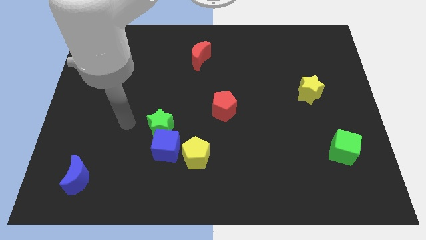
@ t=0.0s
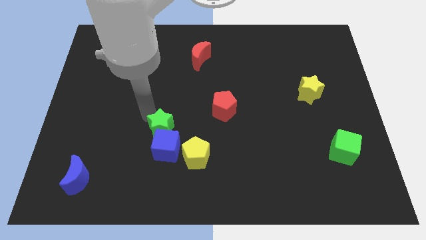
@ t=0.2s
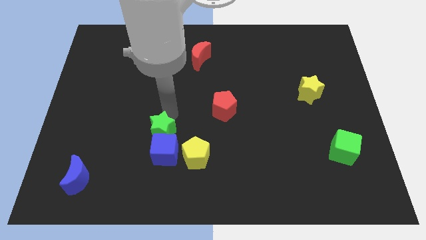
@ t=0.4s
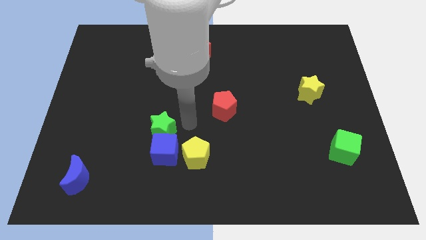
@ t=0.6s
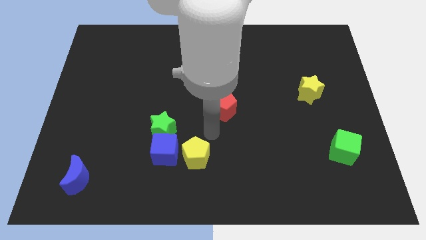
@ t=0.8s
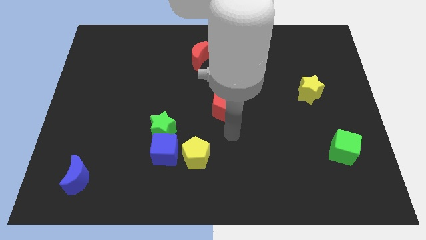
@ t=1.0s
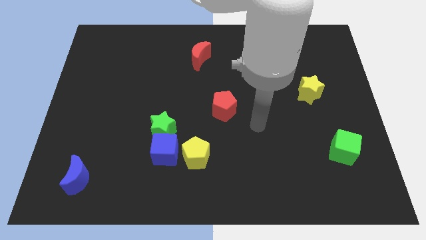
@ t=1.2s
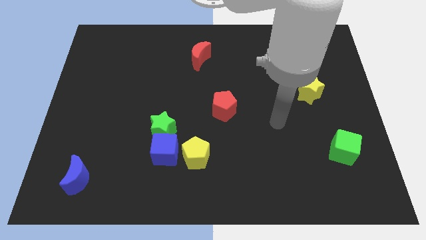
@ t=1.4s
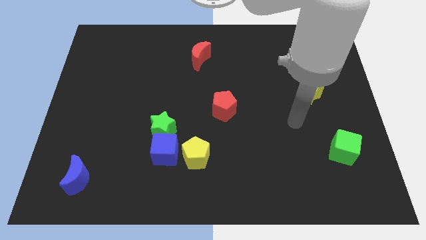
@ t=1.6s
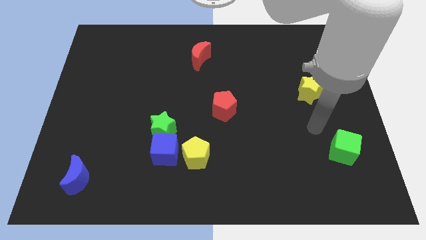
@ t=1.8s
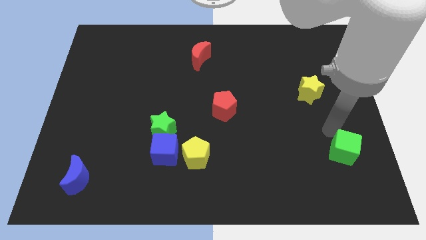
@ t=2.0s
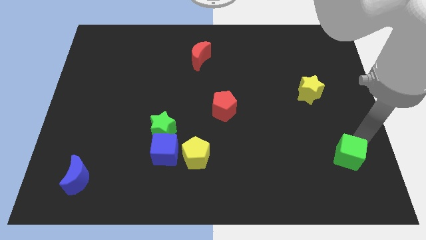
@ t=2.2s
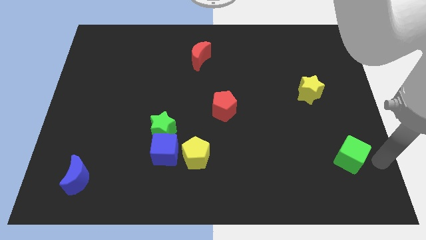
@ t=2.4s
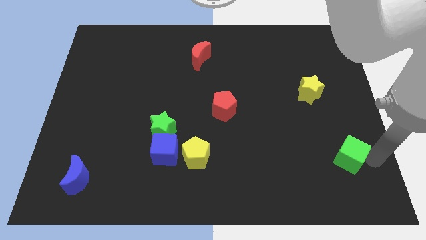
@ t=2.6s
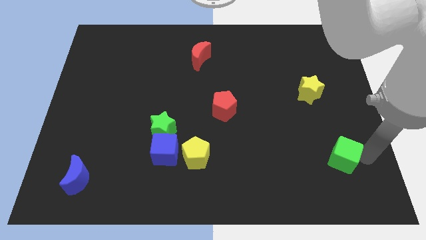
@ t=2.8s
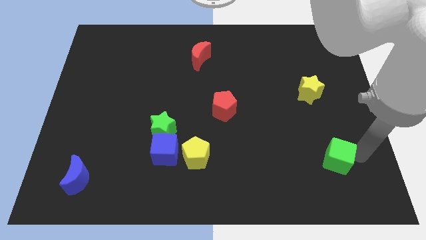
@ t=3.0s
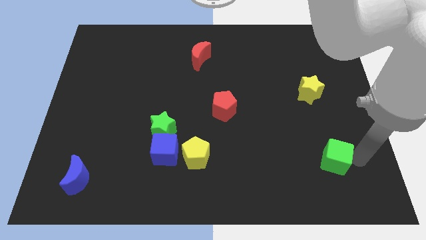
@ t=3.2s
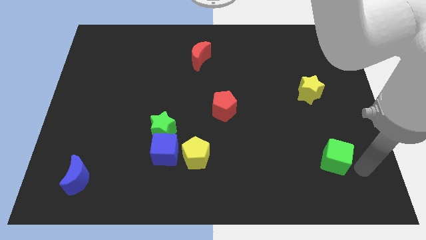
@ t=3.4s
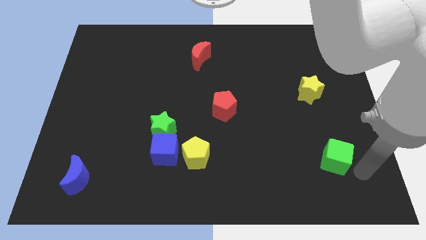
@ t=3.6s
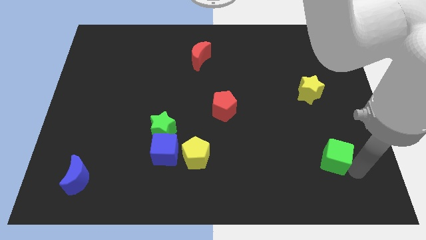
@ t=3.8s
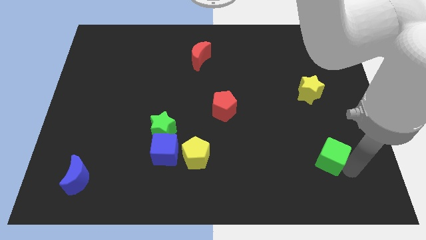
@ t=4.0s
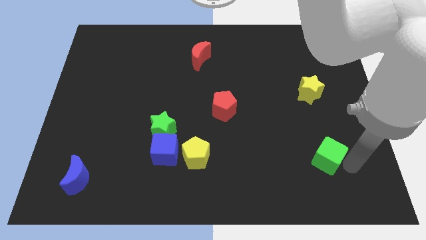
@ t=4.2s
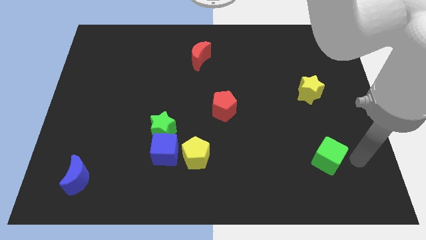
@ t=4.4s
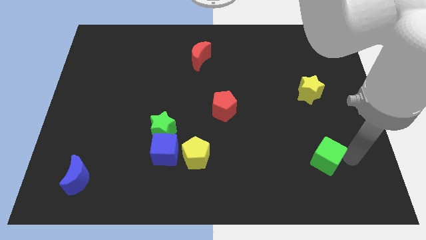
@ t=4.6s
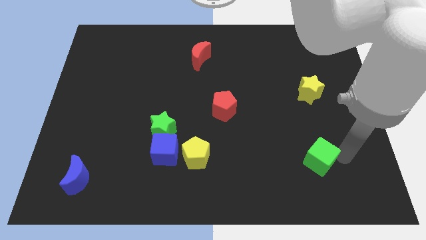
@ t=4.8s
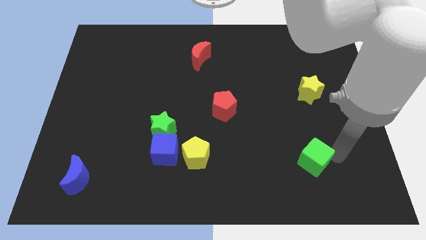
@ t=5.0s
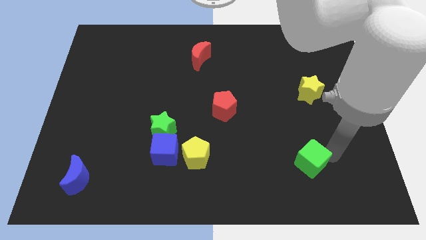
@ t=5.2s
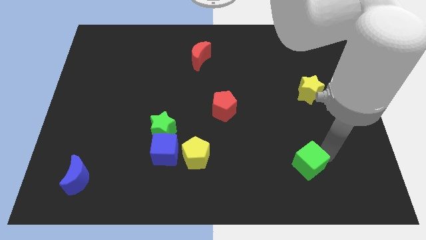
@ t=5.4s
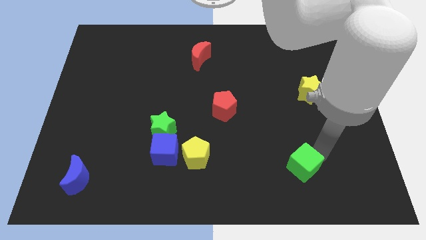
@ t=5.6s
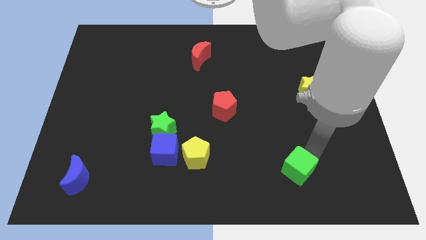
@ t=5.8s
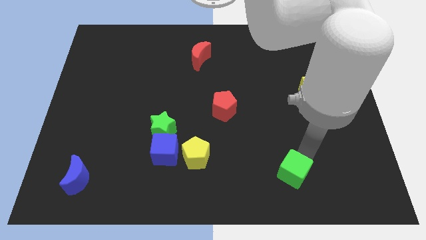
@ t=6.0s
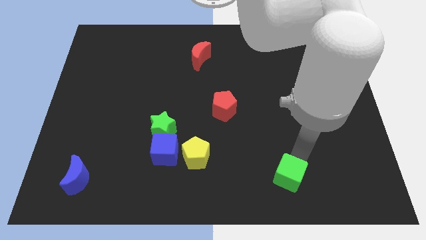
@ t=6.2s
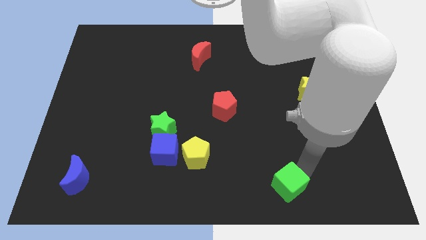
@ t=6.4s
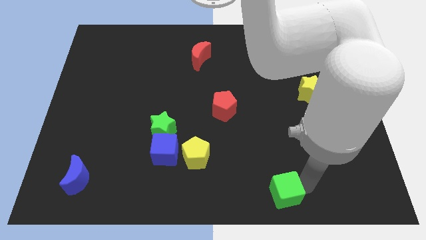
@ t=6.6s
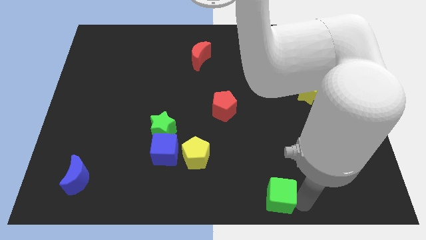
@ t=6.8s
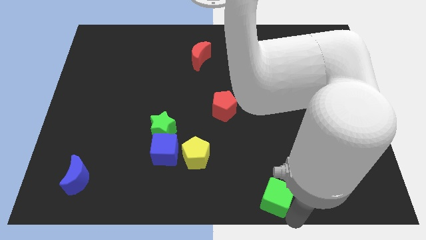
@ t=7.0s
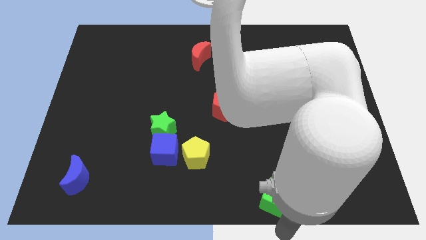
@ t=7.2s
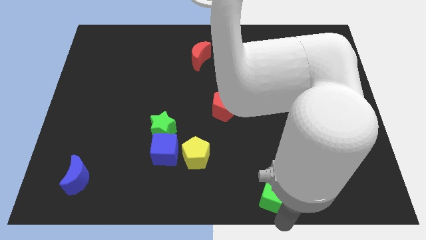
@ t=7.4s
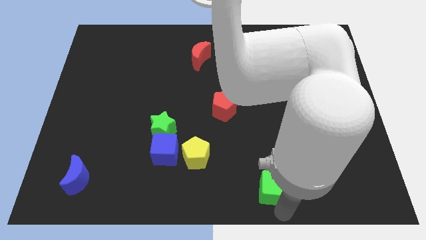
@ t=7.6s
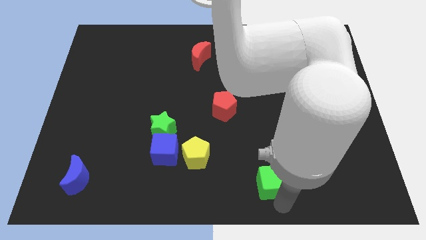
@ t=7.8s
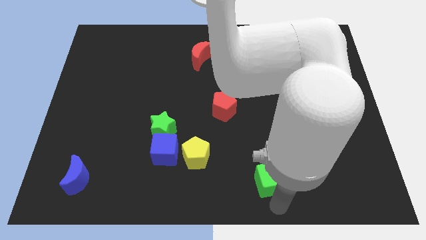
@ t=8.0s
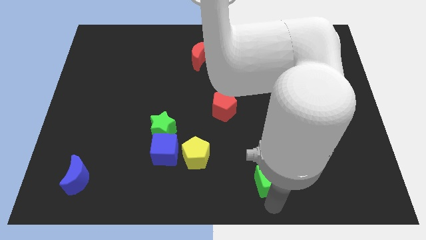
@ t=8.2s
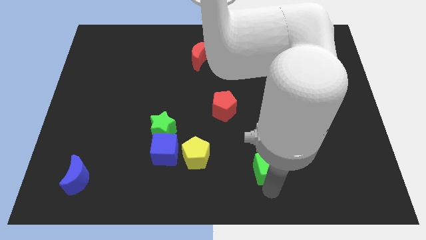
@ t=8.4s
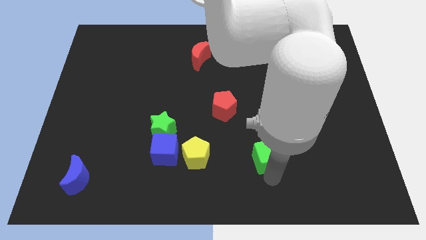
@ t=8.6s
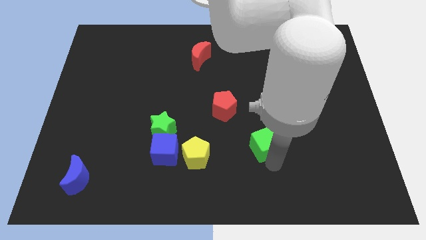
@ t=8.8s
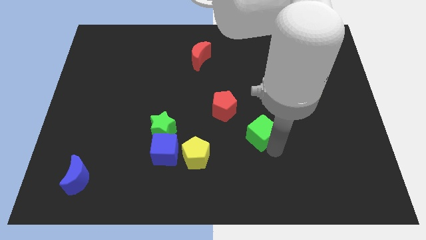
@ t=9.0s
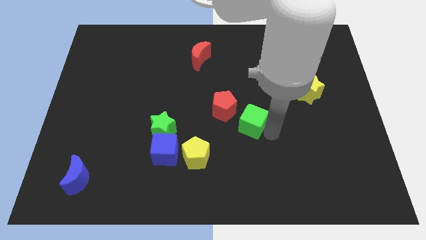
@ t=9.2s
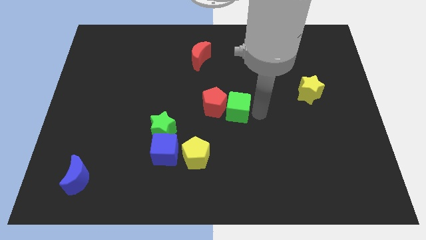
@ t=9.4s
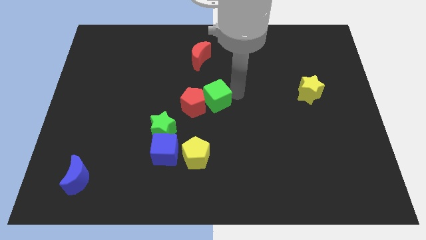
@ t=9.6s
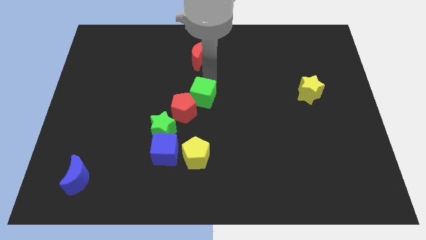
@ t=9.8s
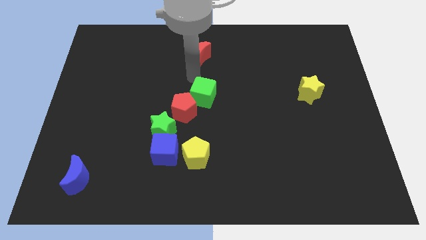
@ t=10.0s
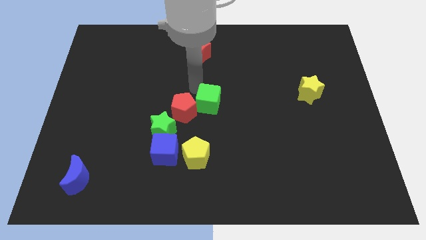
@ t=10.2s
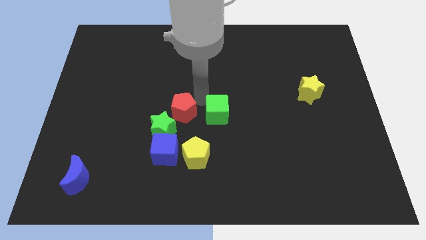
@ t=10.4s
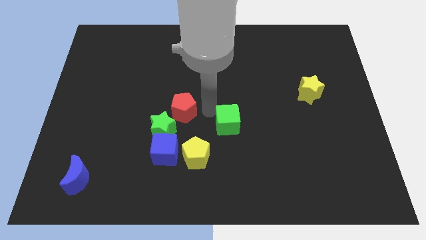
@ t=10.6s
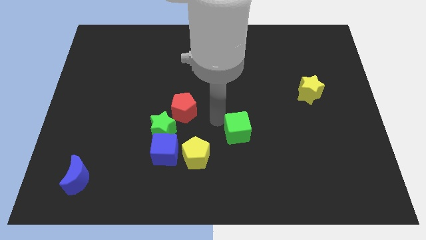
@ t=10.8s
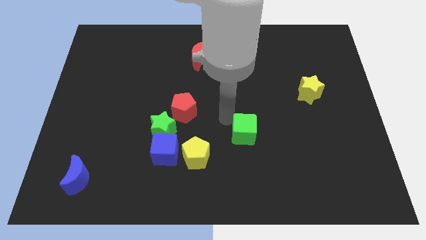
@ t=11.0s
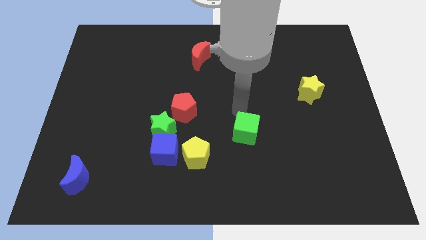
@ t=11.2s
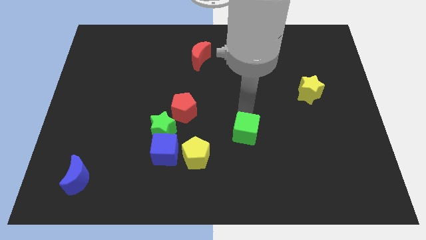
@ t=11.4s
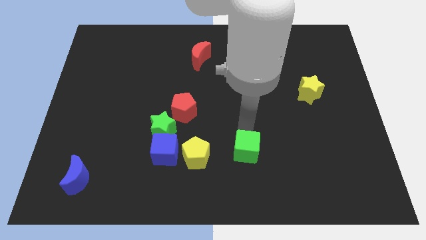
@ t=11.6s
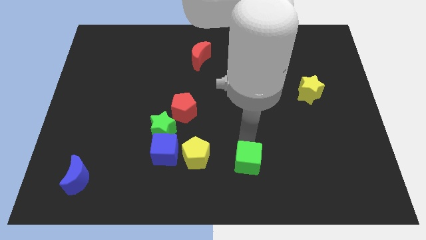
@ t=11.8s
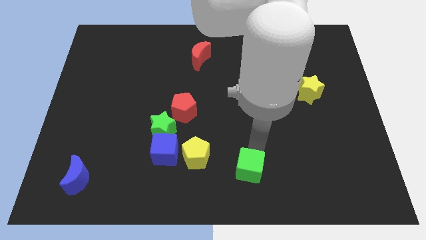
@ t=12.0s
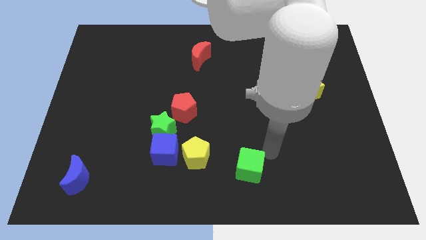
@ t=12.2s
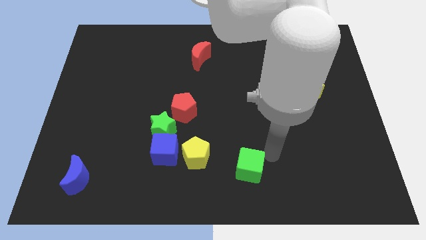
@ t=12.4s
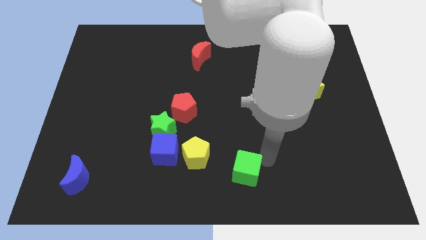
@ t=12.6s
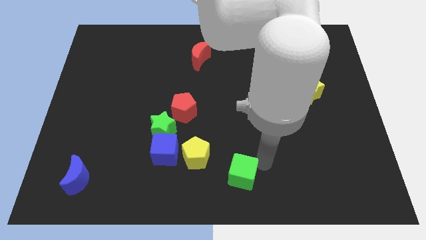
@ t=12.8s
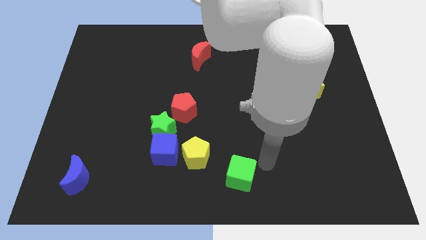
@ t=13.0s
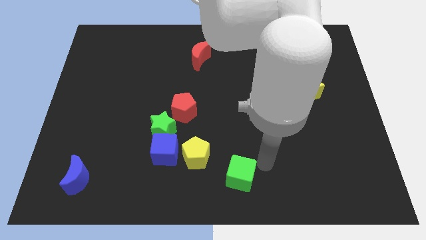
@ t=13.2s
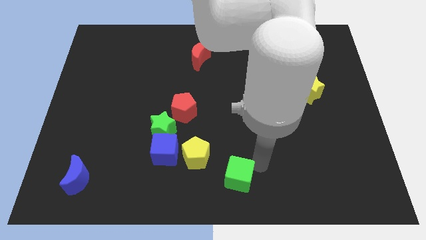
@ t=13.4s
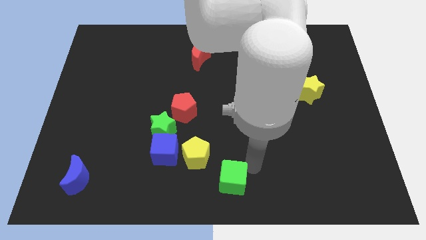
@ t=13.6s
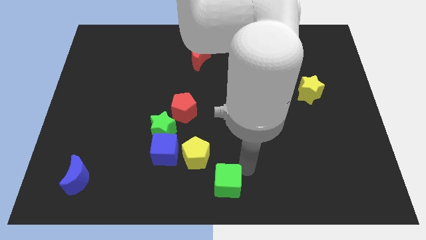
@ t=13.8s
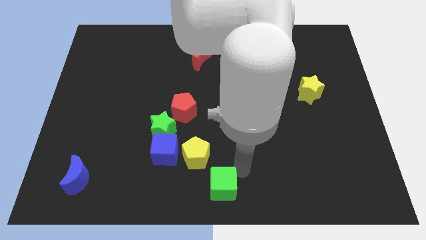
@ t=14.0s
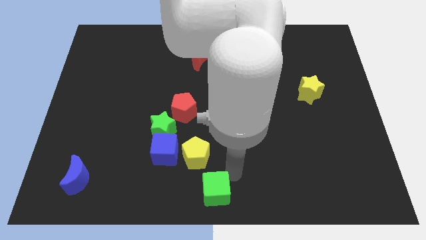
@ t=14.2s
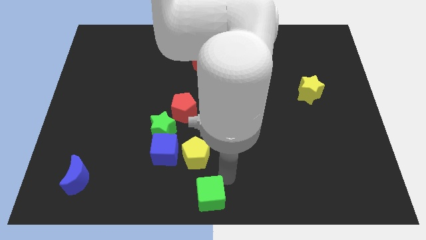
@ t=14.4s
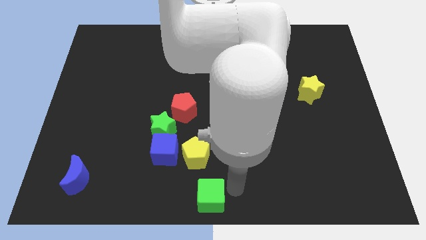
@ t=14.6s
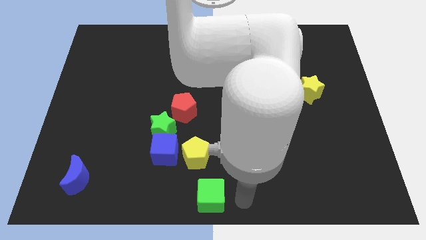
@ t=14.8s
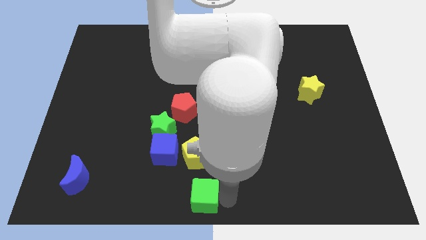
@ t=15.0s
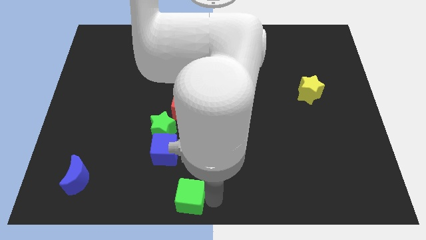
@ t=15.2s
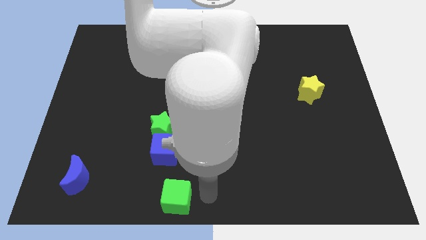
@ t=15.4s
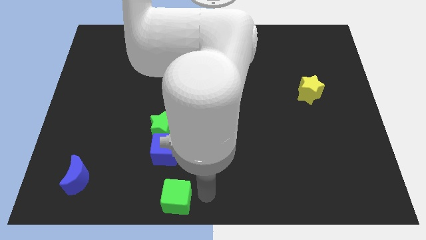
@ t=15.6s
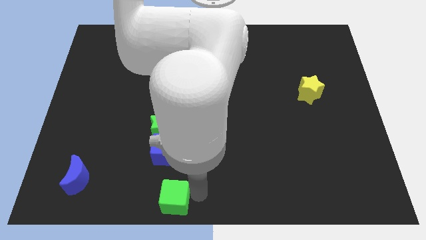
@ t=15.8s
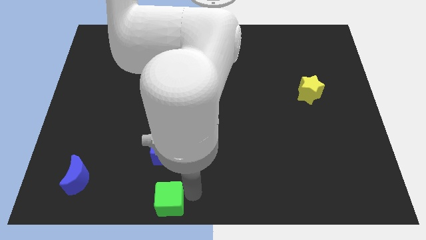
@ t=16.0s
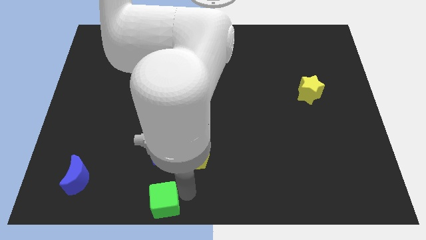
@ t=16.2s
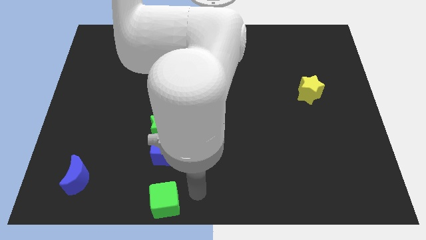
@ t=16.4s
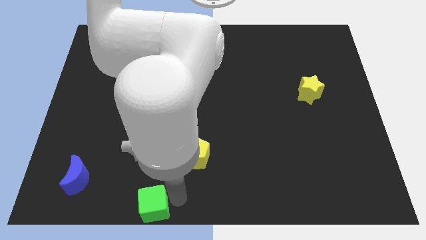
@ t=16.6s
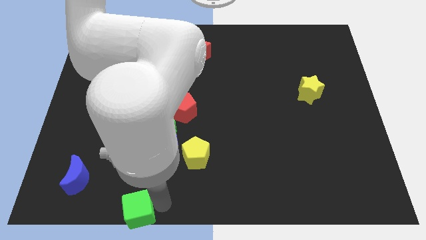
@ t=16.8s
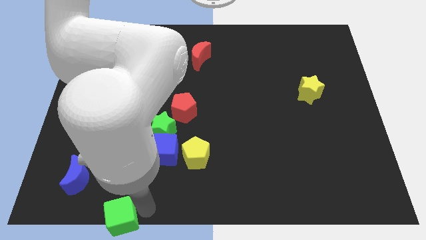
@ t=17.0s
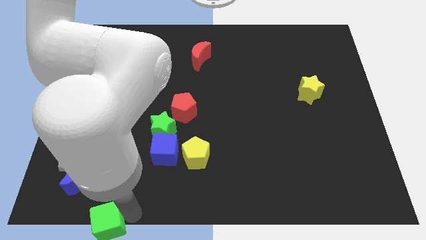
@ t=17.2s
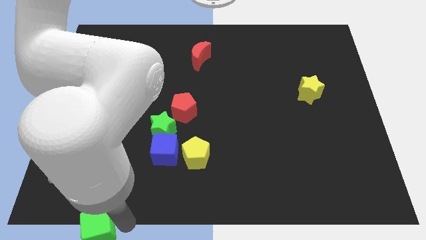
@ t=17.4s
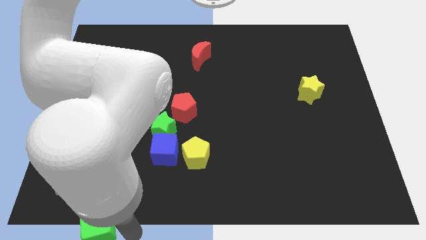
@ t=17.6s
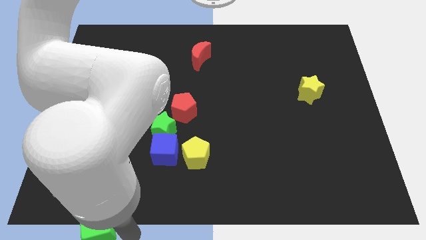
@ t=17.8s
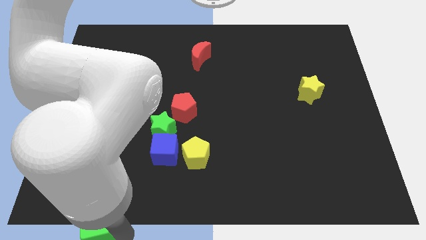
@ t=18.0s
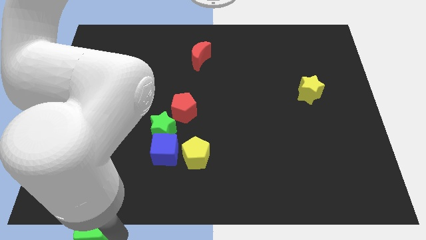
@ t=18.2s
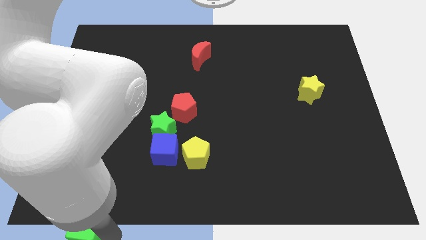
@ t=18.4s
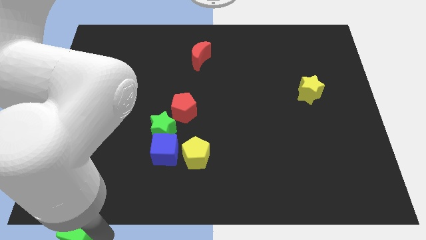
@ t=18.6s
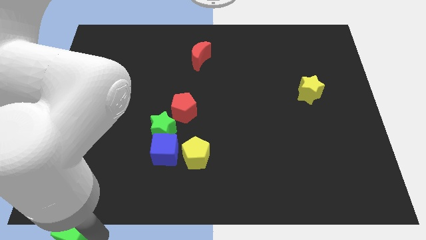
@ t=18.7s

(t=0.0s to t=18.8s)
move the green cube to the bottom left corner
